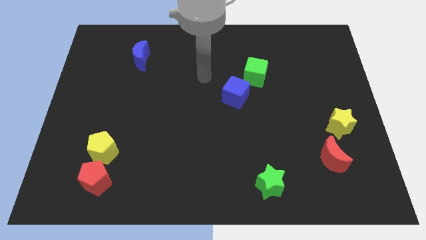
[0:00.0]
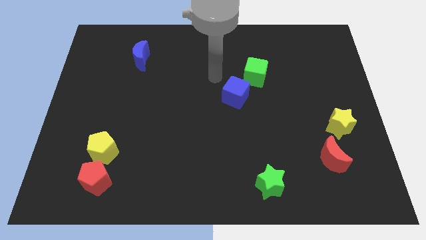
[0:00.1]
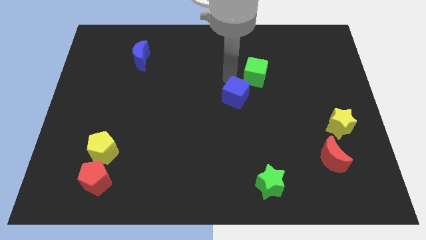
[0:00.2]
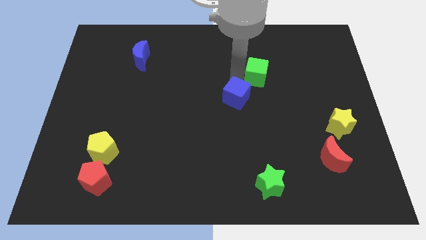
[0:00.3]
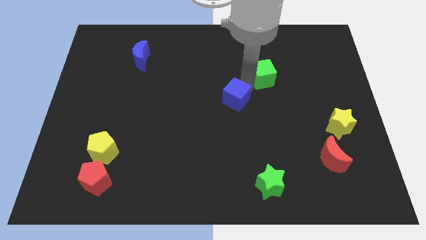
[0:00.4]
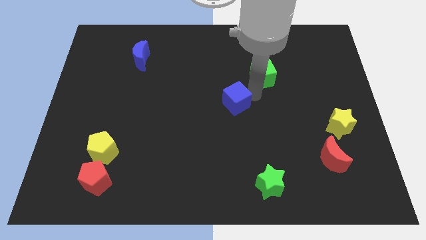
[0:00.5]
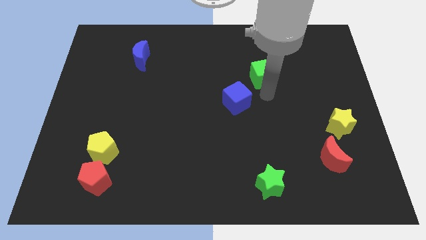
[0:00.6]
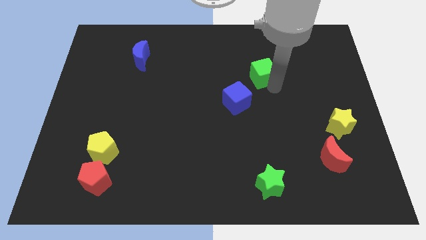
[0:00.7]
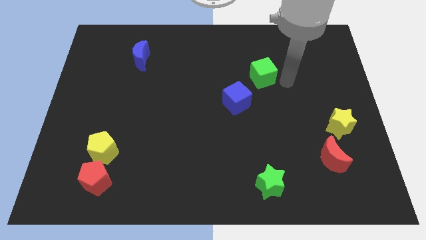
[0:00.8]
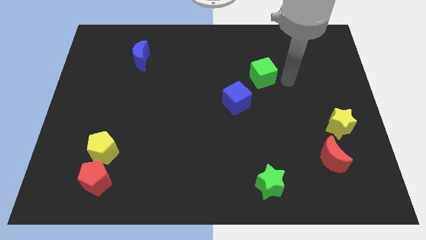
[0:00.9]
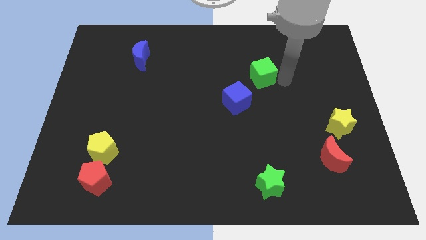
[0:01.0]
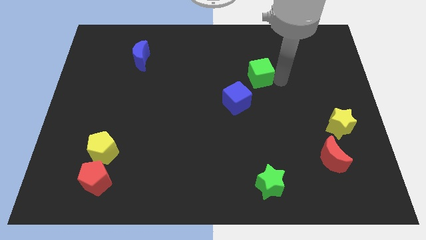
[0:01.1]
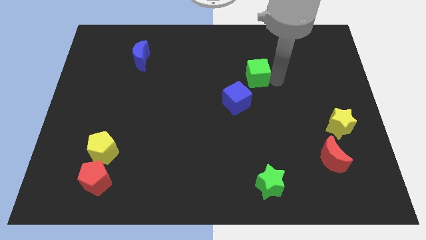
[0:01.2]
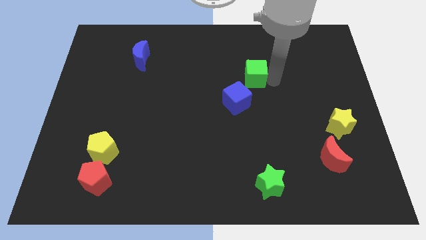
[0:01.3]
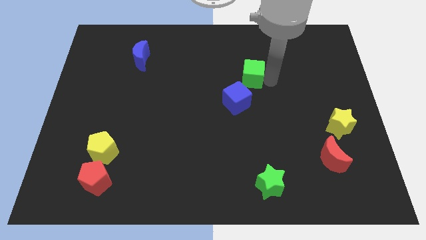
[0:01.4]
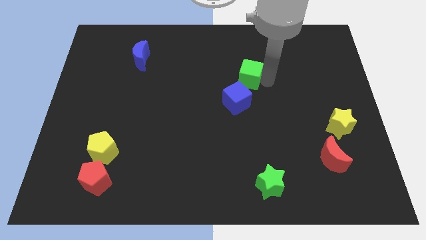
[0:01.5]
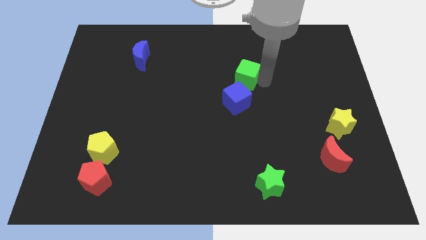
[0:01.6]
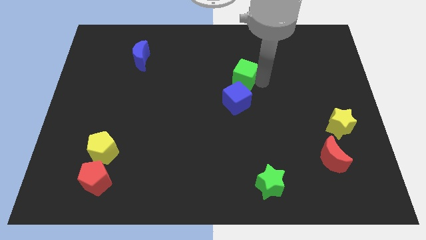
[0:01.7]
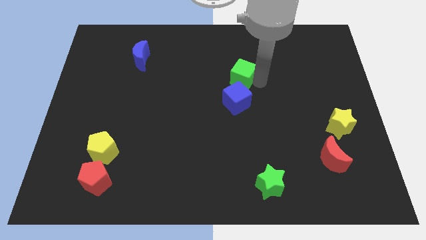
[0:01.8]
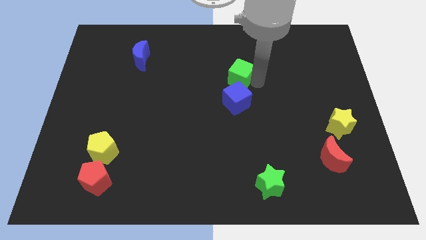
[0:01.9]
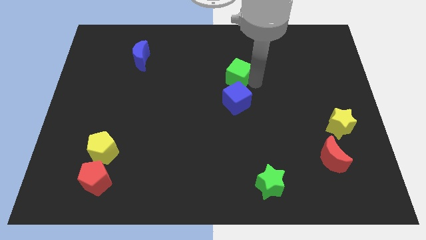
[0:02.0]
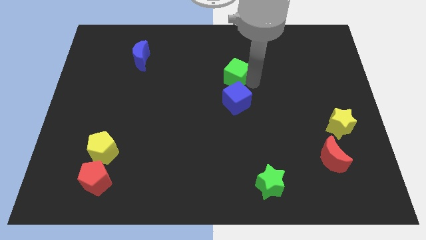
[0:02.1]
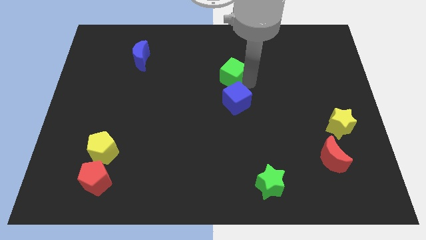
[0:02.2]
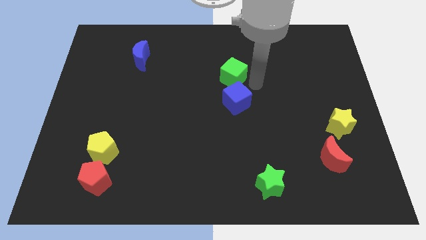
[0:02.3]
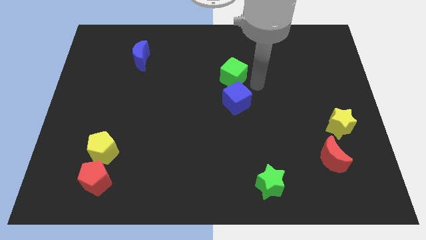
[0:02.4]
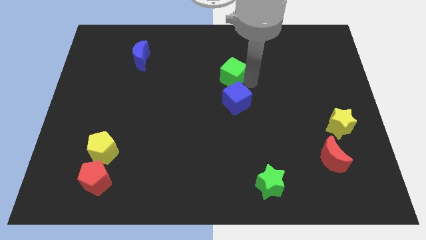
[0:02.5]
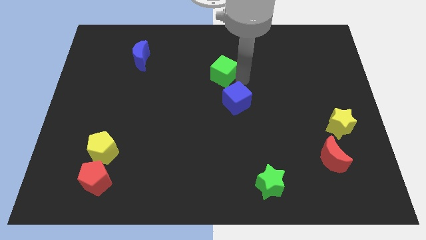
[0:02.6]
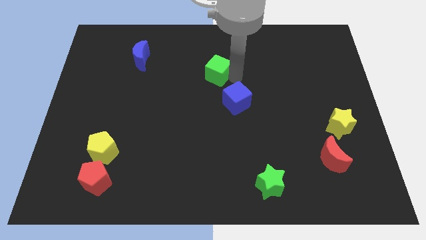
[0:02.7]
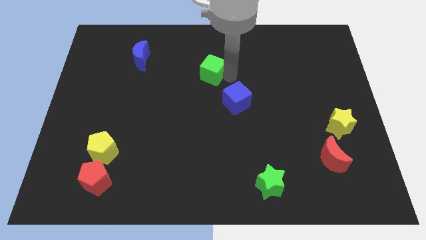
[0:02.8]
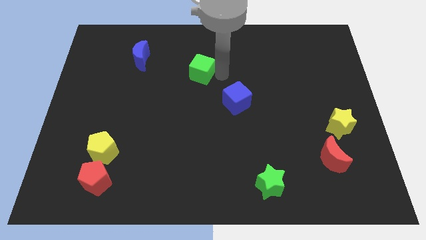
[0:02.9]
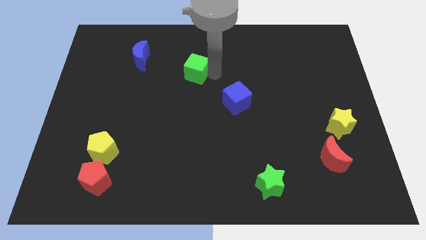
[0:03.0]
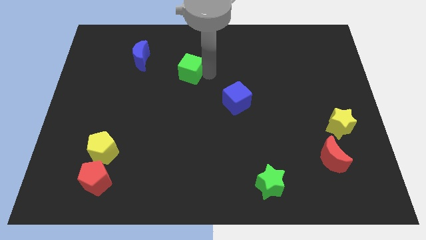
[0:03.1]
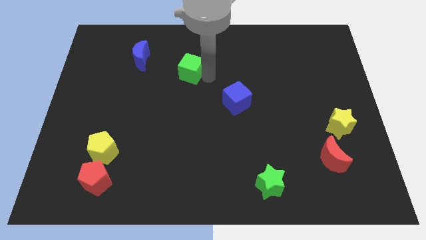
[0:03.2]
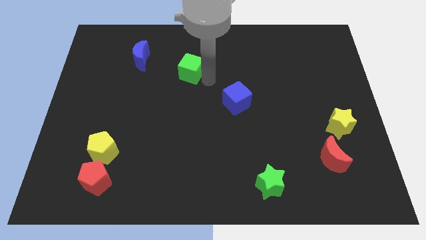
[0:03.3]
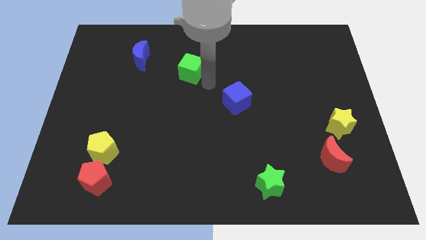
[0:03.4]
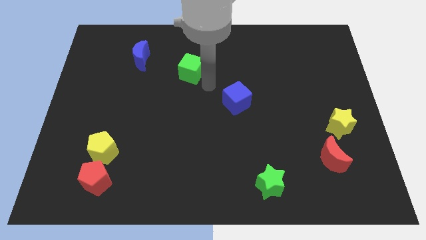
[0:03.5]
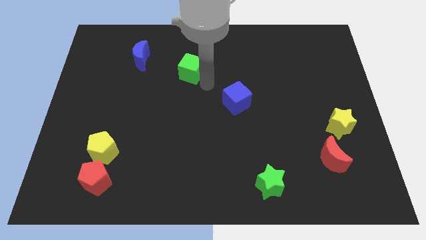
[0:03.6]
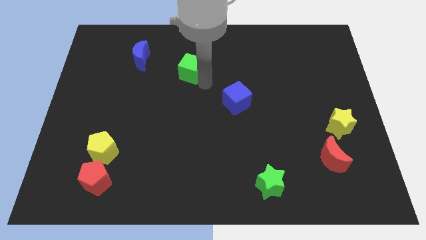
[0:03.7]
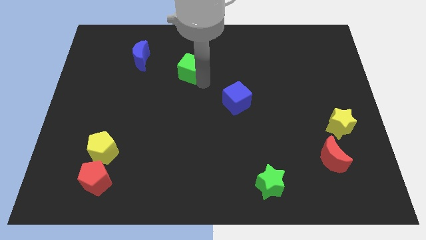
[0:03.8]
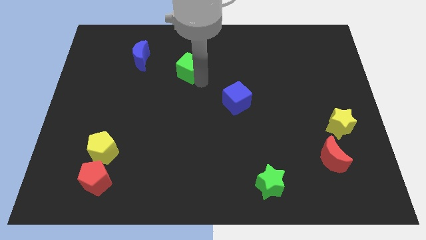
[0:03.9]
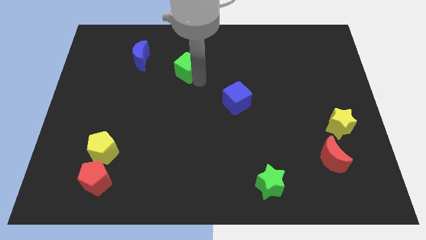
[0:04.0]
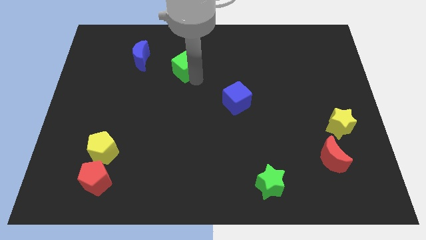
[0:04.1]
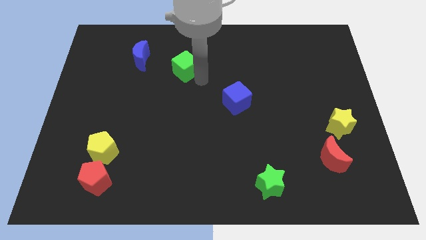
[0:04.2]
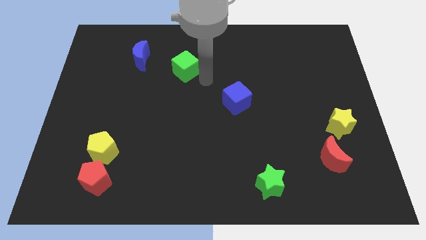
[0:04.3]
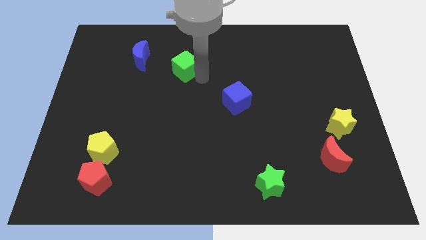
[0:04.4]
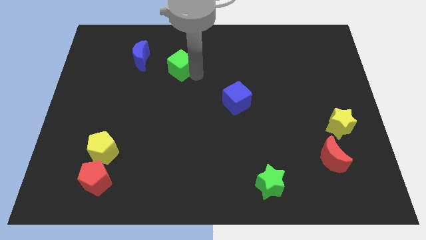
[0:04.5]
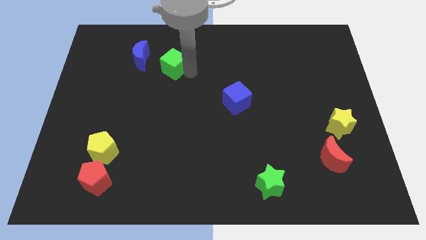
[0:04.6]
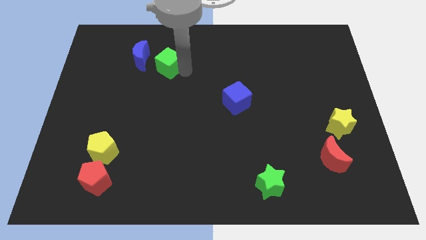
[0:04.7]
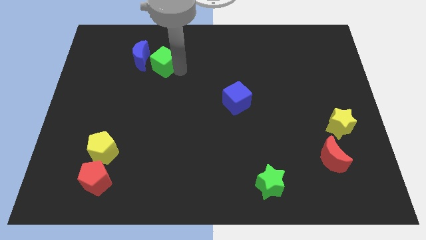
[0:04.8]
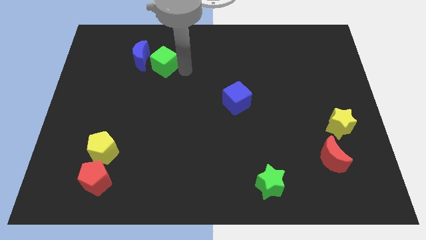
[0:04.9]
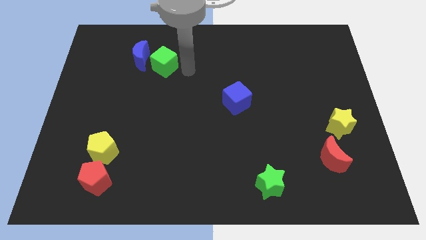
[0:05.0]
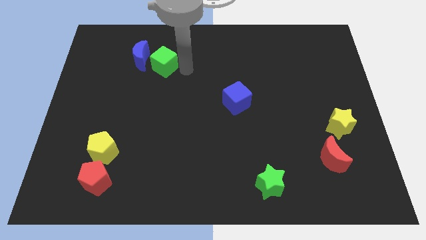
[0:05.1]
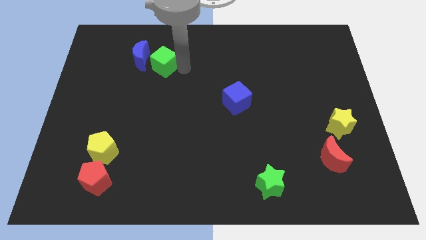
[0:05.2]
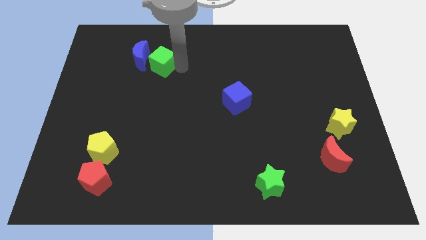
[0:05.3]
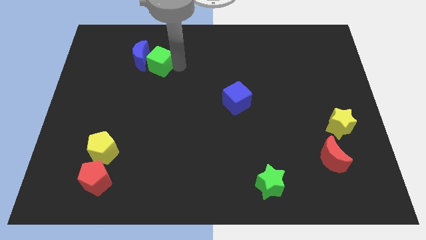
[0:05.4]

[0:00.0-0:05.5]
push the green cube close to the blue moon

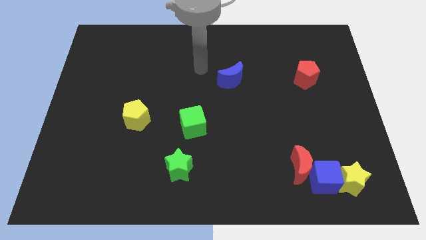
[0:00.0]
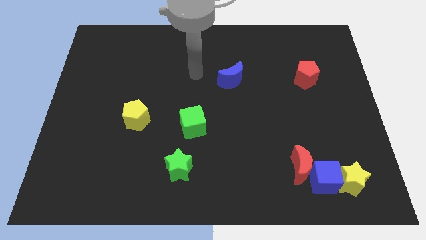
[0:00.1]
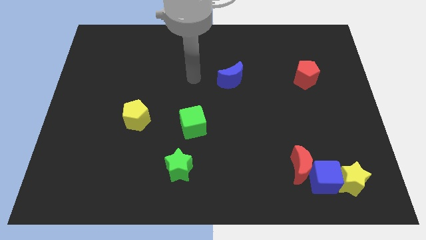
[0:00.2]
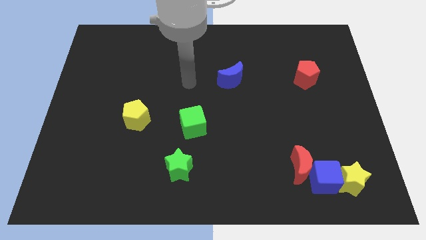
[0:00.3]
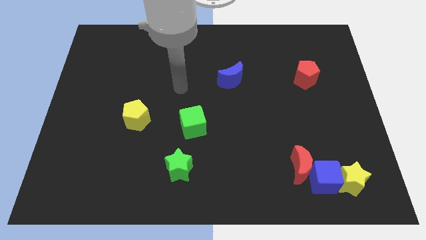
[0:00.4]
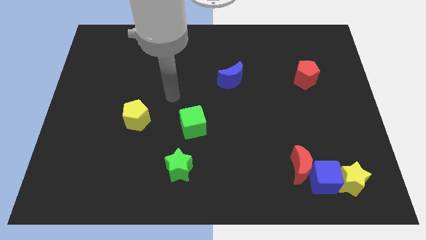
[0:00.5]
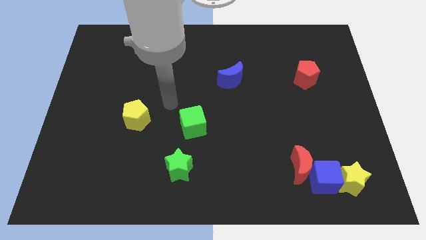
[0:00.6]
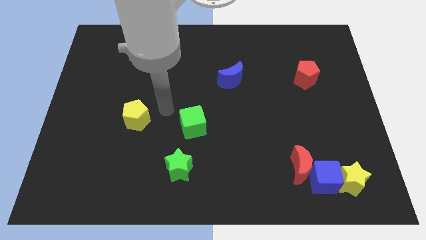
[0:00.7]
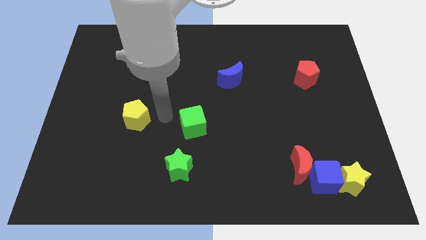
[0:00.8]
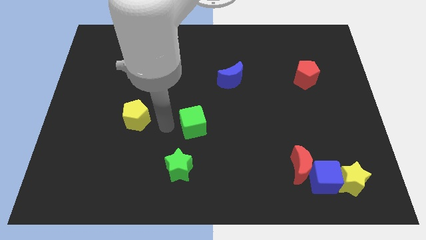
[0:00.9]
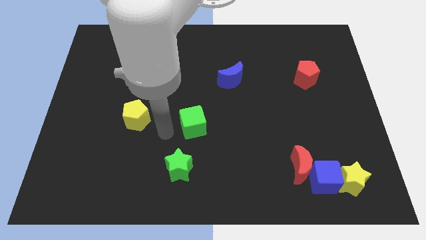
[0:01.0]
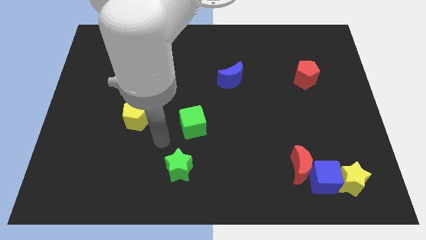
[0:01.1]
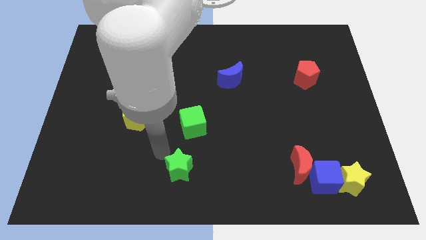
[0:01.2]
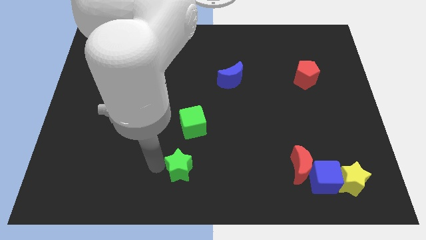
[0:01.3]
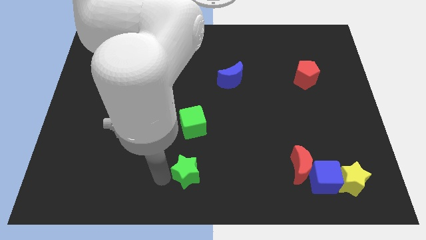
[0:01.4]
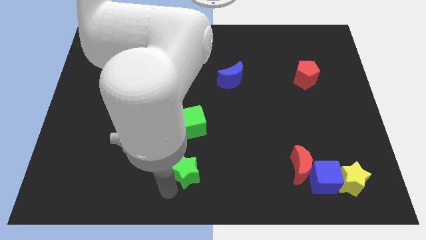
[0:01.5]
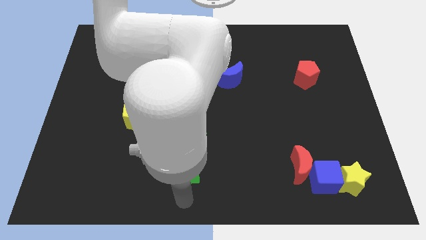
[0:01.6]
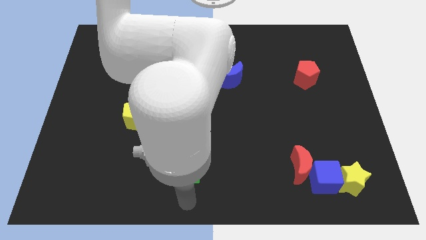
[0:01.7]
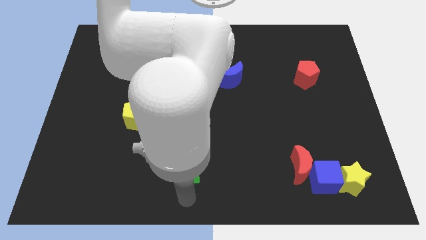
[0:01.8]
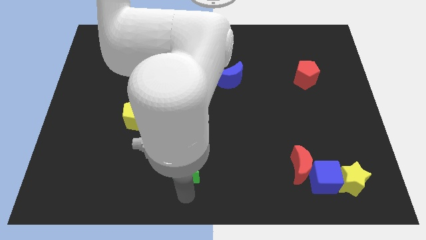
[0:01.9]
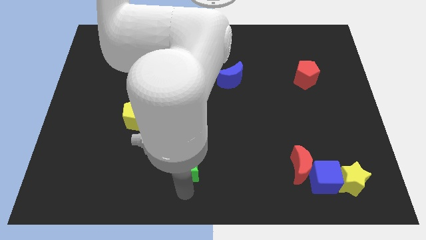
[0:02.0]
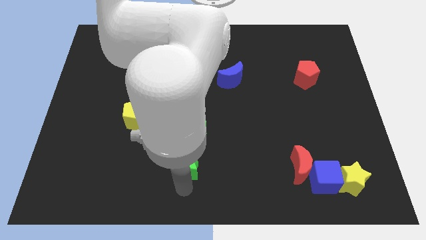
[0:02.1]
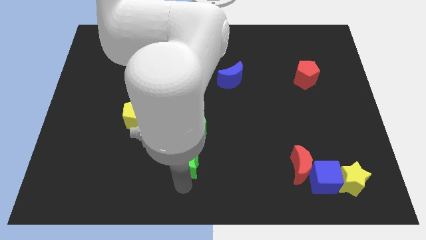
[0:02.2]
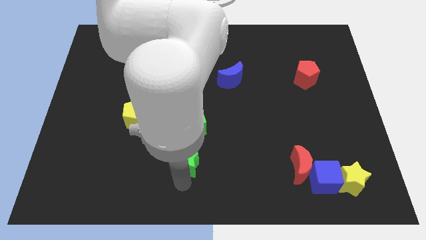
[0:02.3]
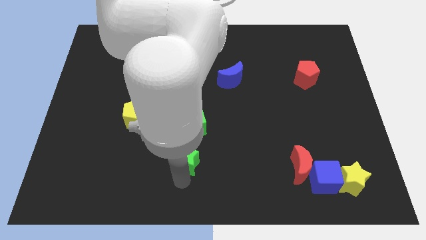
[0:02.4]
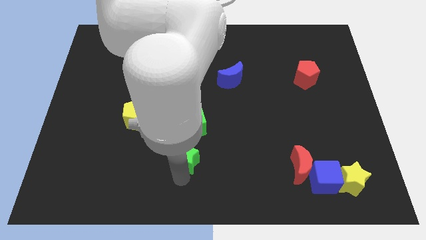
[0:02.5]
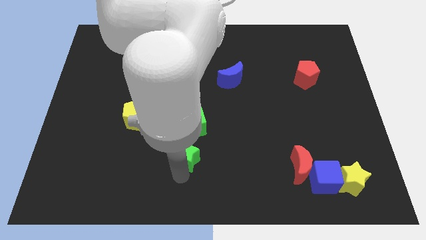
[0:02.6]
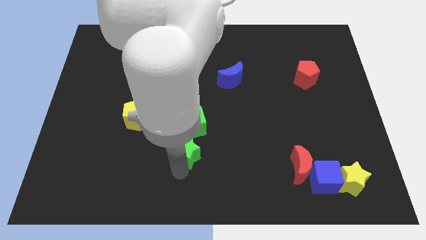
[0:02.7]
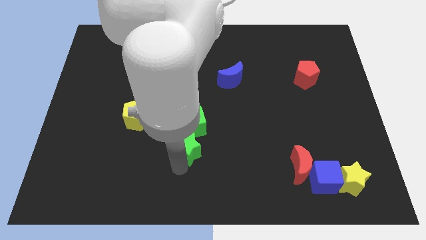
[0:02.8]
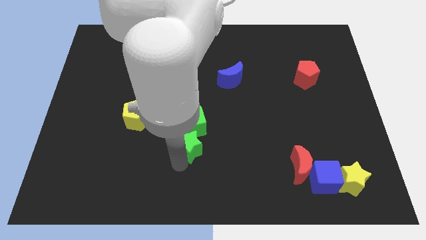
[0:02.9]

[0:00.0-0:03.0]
slide the green star towards the green cube
